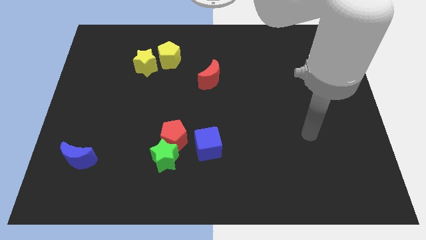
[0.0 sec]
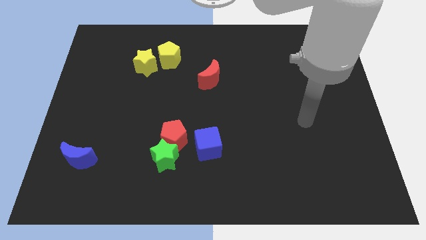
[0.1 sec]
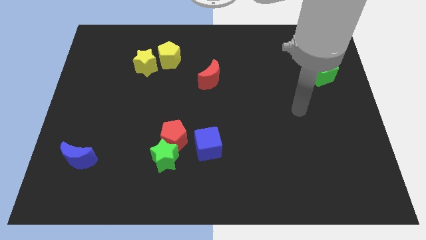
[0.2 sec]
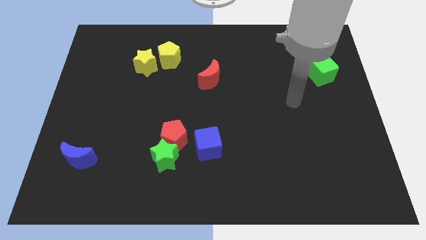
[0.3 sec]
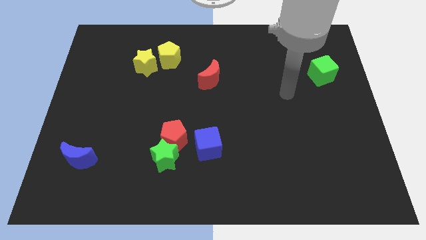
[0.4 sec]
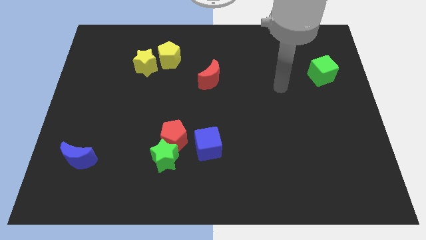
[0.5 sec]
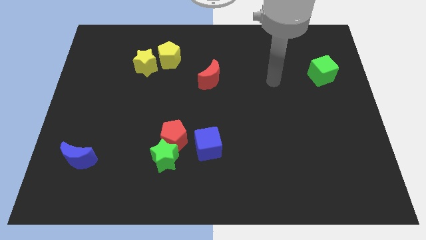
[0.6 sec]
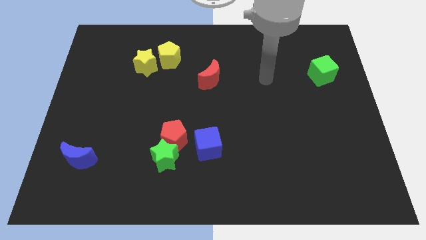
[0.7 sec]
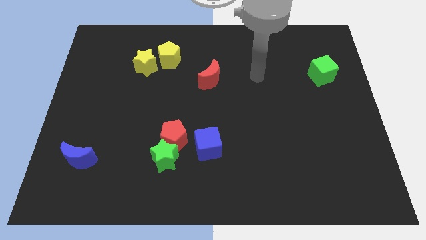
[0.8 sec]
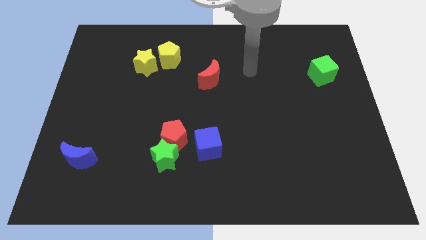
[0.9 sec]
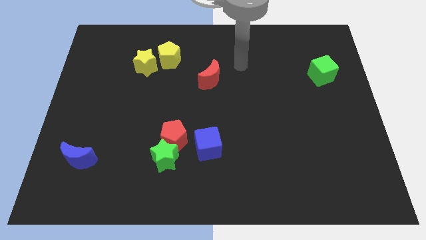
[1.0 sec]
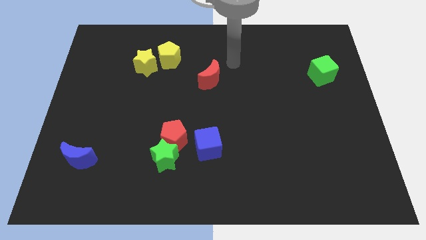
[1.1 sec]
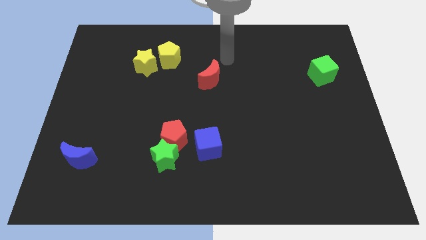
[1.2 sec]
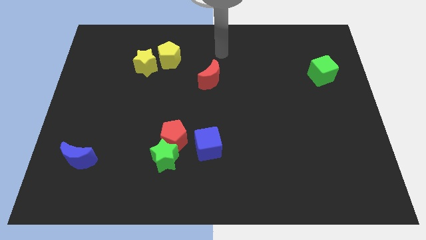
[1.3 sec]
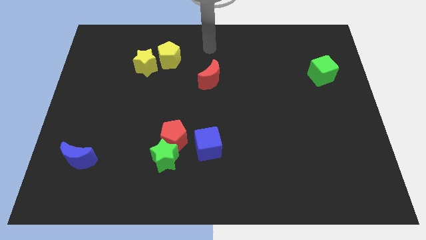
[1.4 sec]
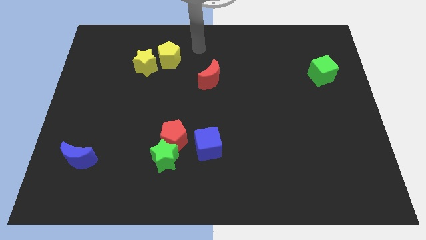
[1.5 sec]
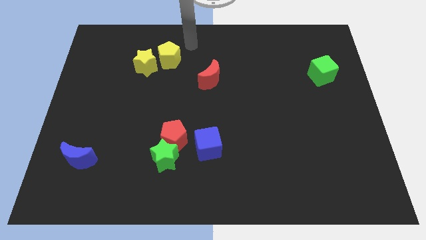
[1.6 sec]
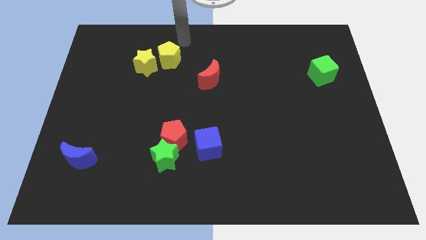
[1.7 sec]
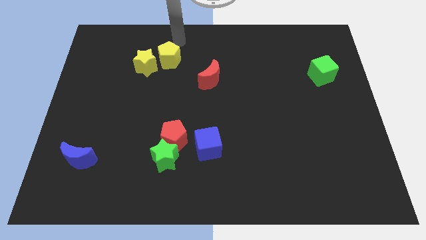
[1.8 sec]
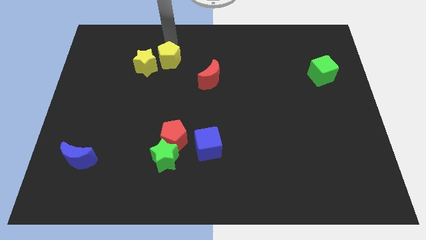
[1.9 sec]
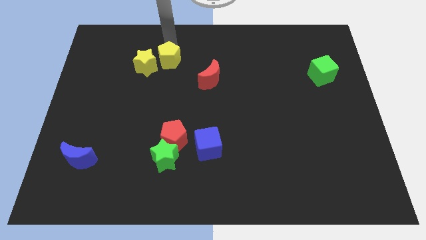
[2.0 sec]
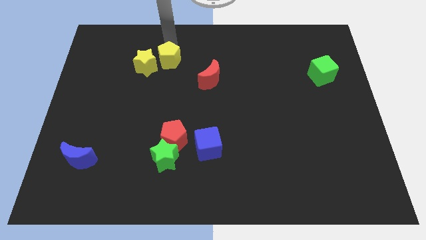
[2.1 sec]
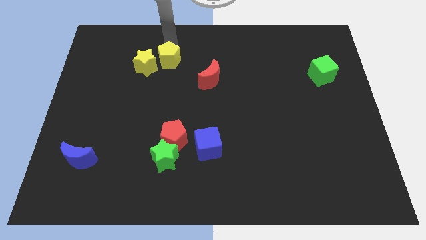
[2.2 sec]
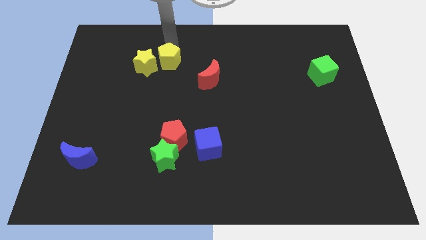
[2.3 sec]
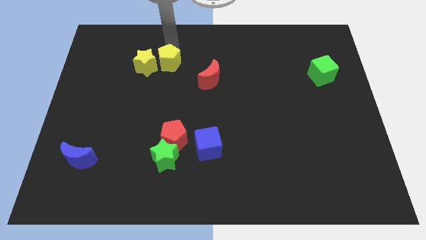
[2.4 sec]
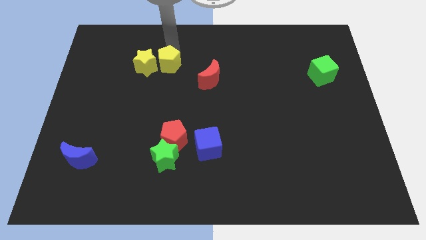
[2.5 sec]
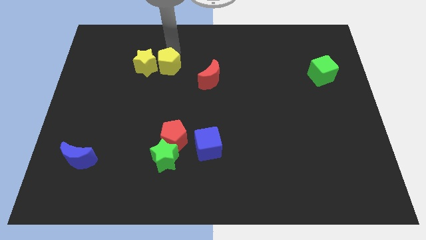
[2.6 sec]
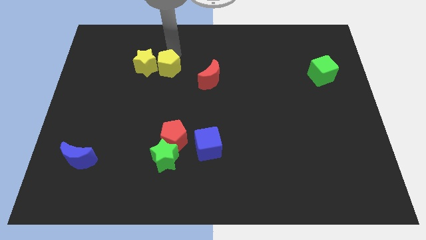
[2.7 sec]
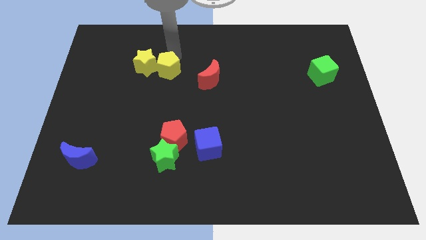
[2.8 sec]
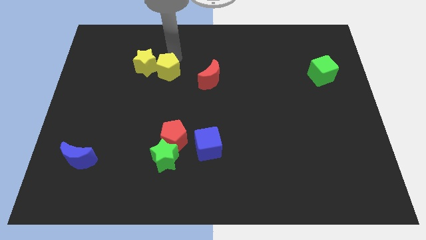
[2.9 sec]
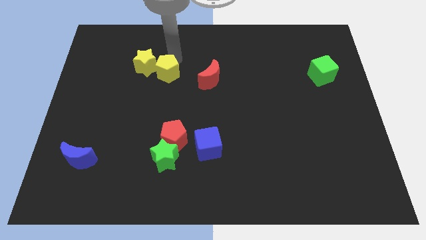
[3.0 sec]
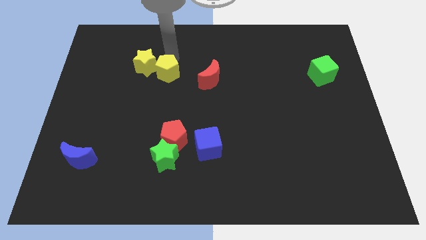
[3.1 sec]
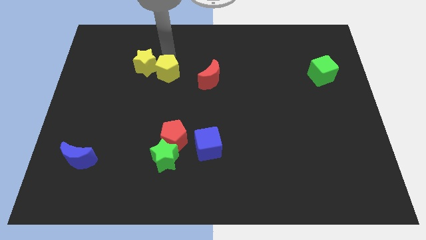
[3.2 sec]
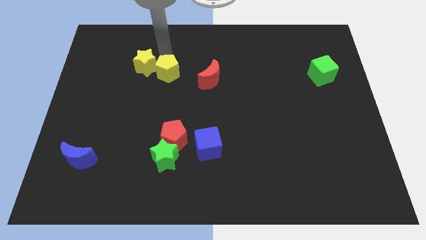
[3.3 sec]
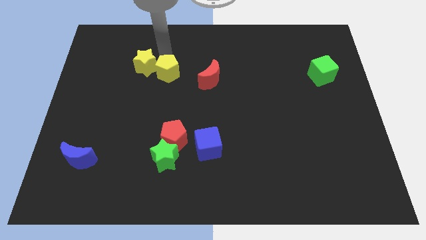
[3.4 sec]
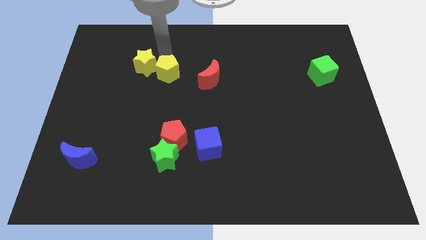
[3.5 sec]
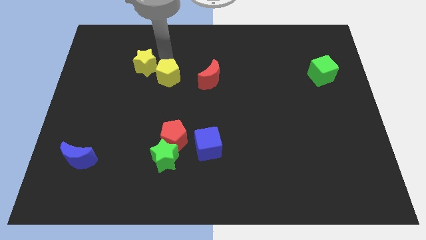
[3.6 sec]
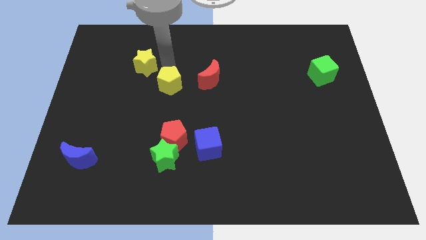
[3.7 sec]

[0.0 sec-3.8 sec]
push the yellow pentagon downwards a bit

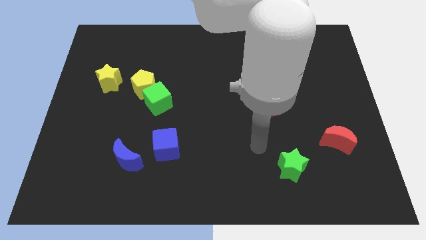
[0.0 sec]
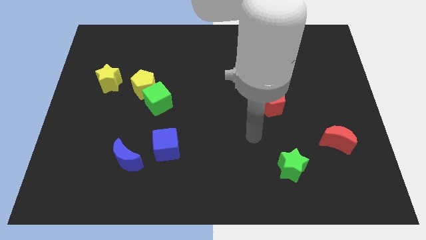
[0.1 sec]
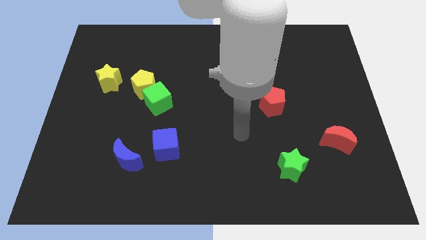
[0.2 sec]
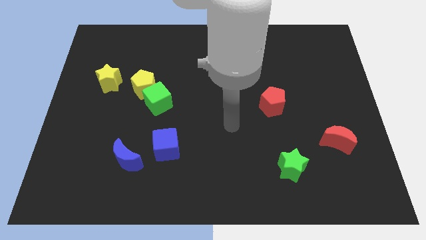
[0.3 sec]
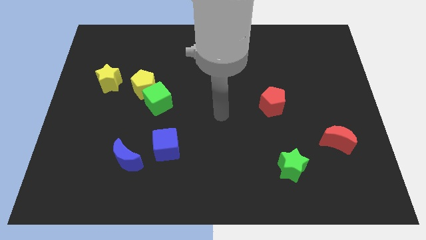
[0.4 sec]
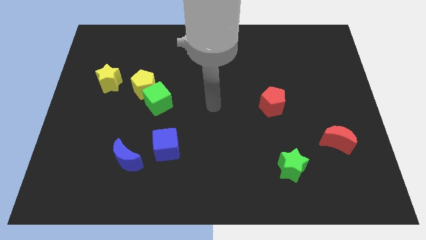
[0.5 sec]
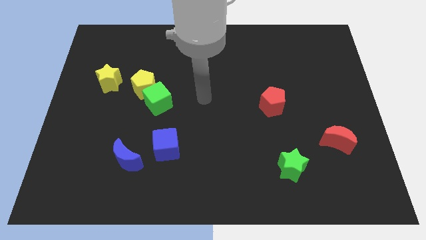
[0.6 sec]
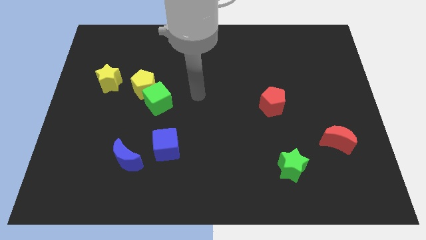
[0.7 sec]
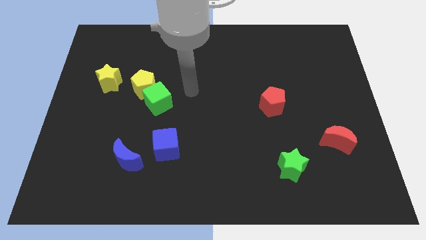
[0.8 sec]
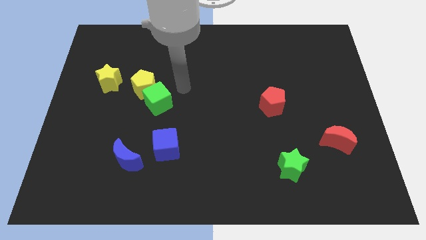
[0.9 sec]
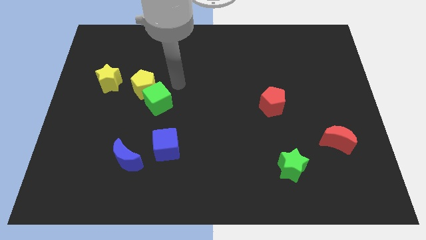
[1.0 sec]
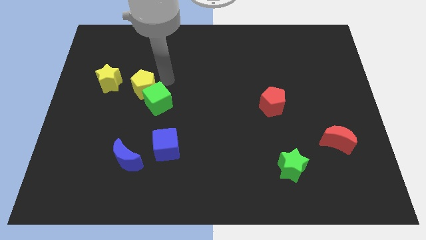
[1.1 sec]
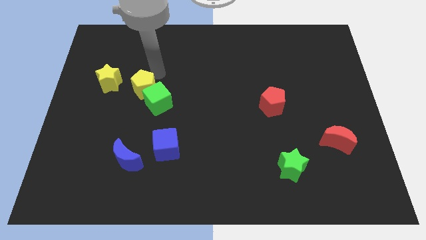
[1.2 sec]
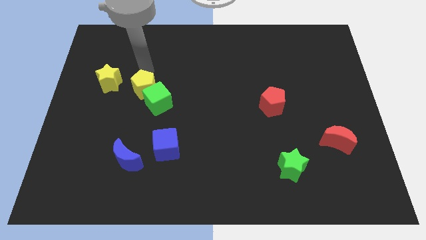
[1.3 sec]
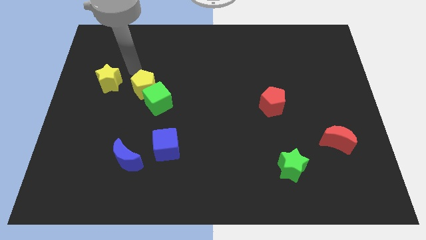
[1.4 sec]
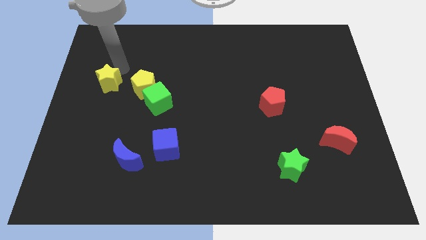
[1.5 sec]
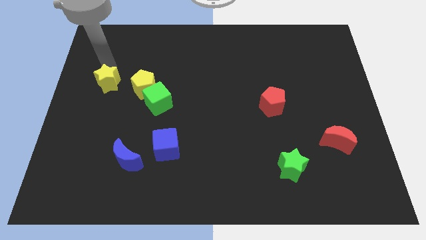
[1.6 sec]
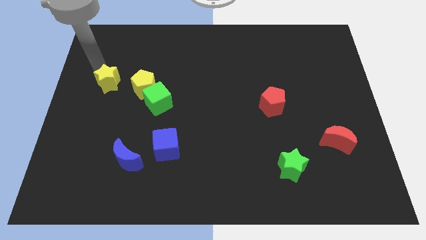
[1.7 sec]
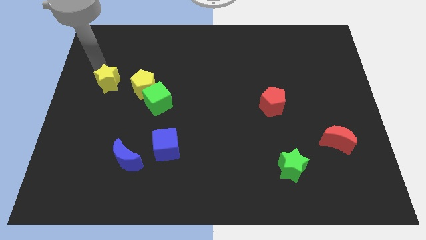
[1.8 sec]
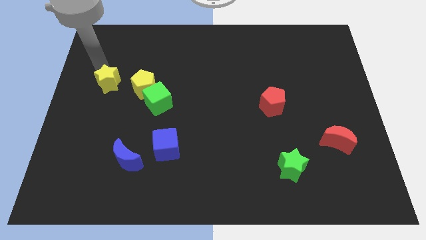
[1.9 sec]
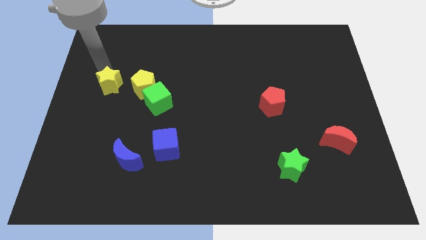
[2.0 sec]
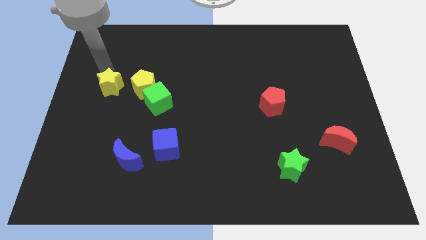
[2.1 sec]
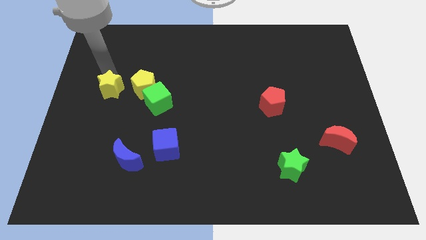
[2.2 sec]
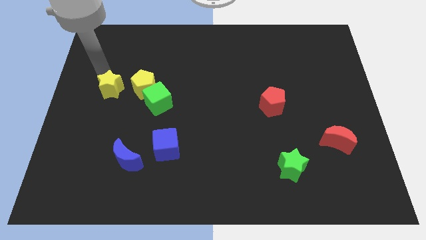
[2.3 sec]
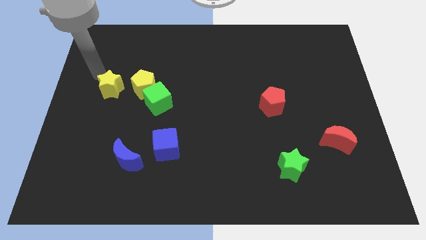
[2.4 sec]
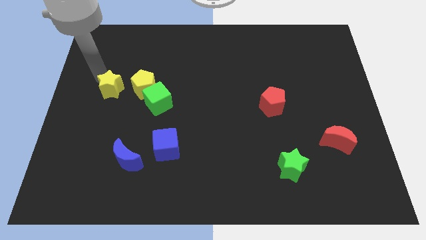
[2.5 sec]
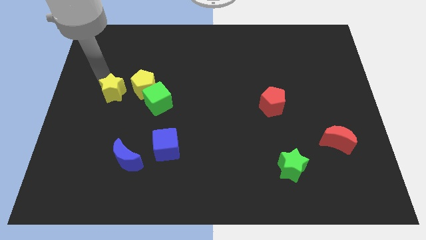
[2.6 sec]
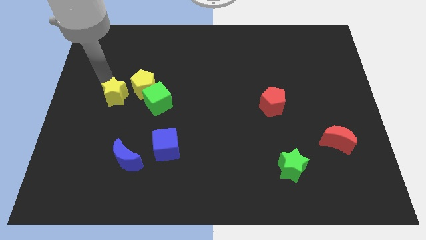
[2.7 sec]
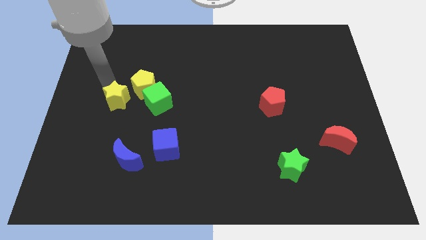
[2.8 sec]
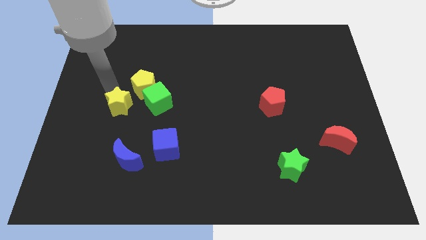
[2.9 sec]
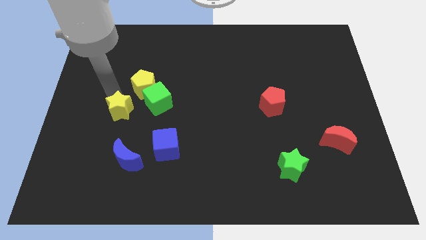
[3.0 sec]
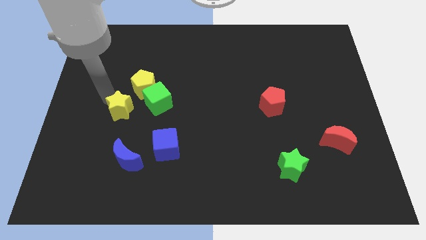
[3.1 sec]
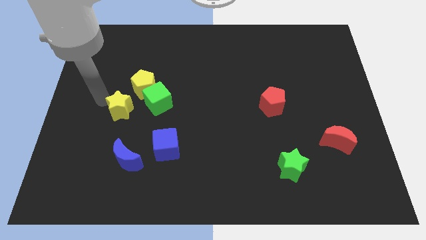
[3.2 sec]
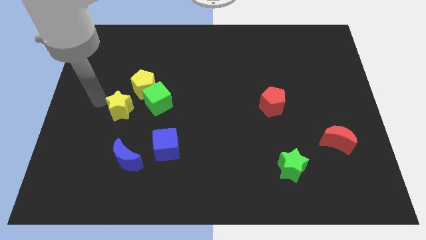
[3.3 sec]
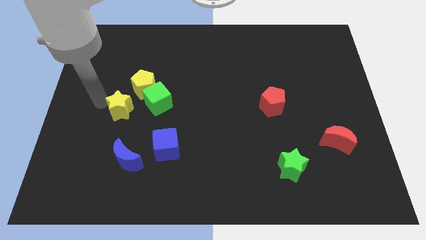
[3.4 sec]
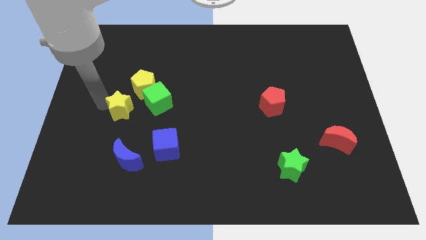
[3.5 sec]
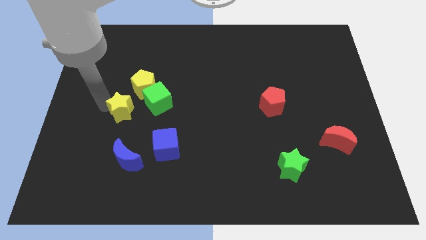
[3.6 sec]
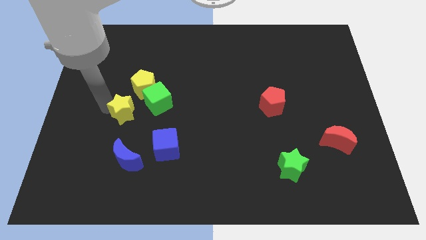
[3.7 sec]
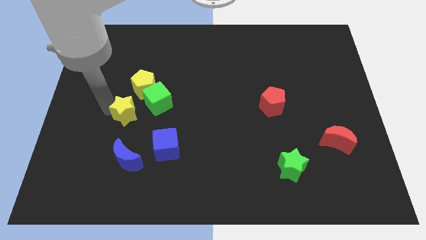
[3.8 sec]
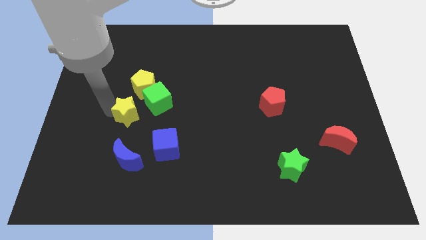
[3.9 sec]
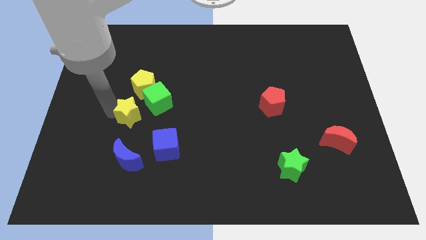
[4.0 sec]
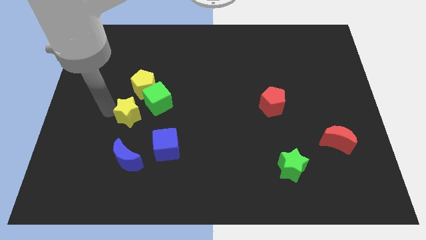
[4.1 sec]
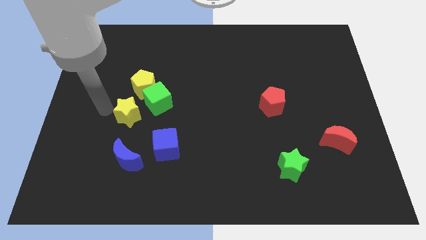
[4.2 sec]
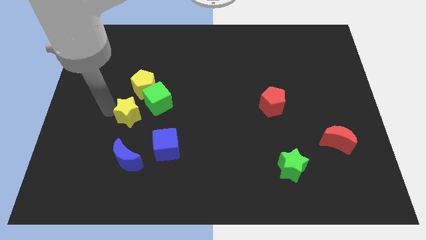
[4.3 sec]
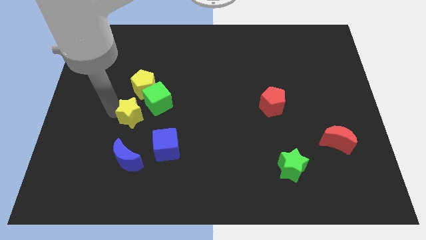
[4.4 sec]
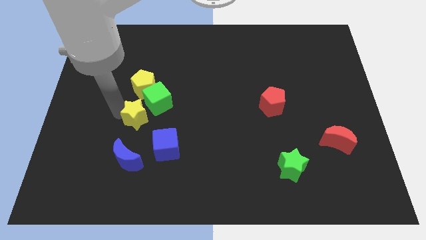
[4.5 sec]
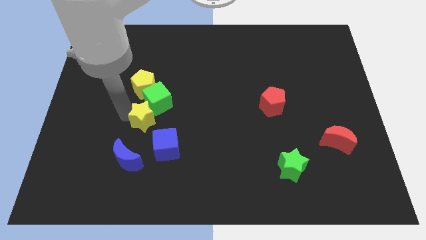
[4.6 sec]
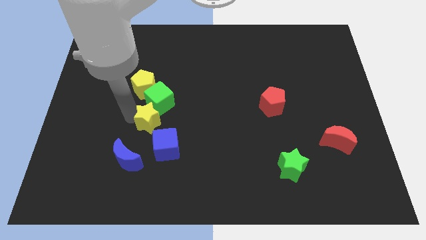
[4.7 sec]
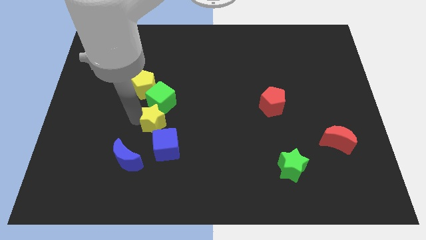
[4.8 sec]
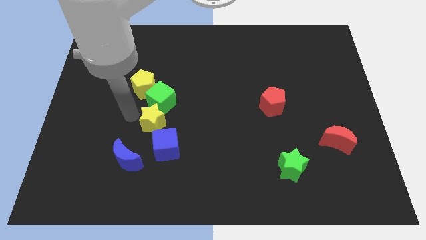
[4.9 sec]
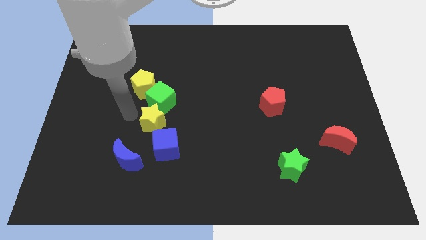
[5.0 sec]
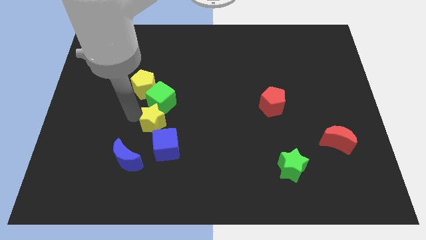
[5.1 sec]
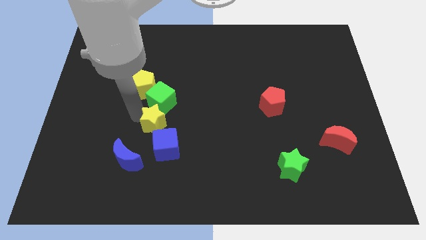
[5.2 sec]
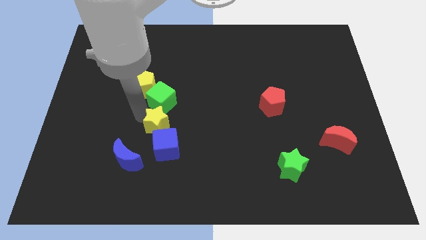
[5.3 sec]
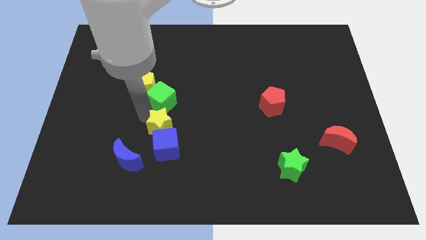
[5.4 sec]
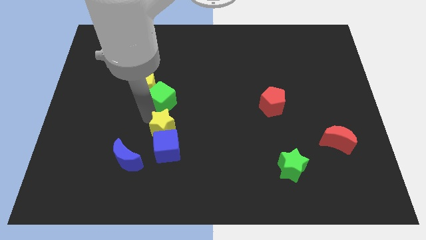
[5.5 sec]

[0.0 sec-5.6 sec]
slide the yellow star down and to the right diagonally
